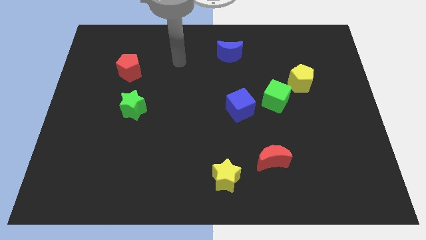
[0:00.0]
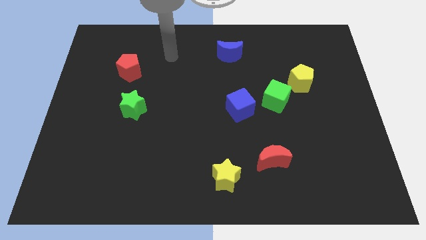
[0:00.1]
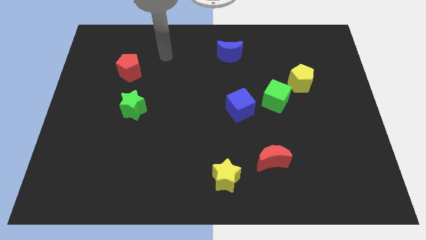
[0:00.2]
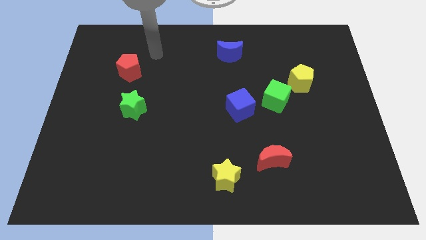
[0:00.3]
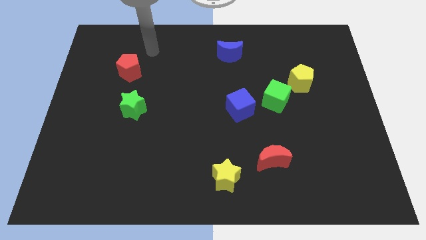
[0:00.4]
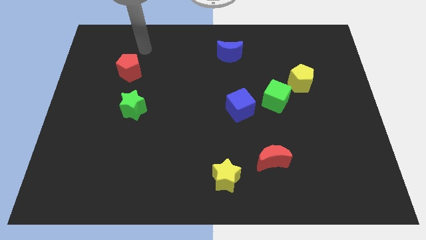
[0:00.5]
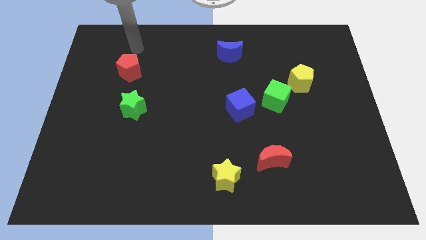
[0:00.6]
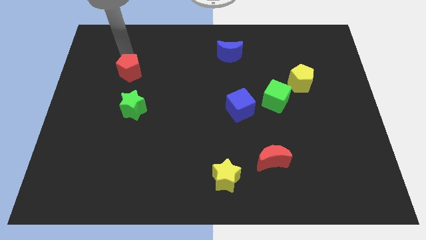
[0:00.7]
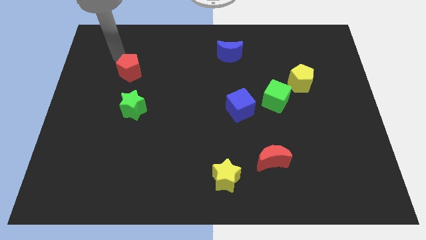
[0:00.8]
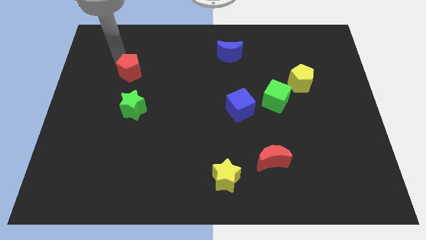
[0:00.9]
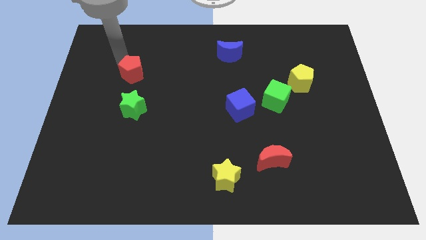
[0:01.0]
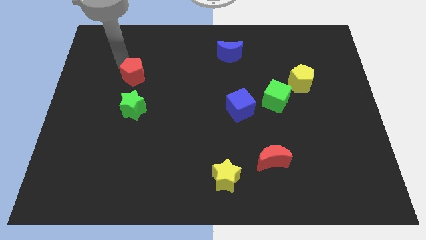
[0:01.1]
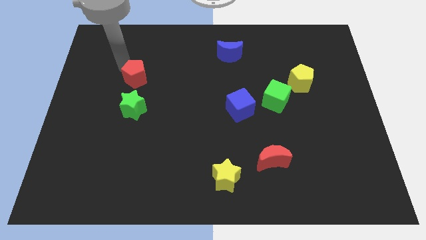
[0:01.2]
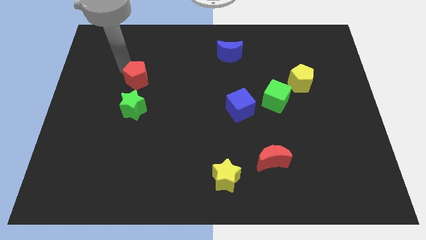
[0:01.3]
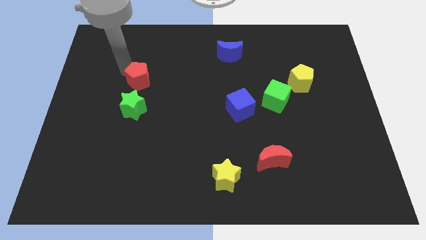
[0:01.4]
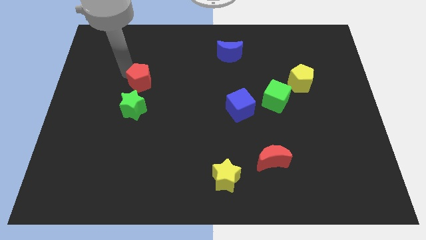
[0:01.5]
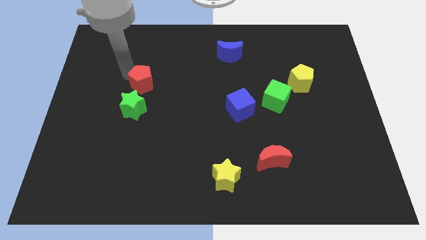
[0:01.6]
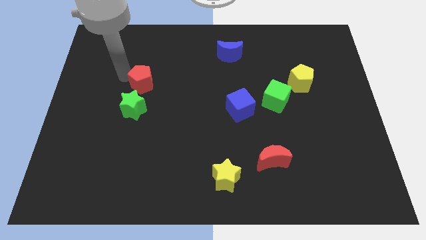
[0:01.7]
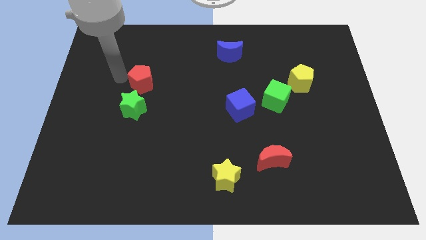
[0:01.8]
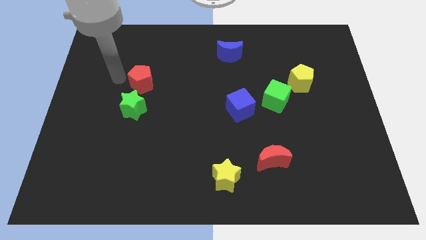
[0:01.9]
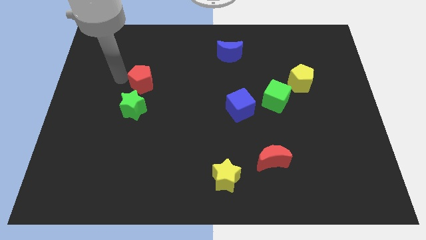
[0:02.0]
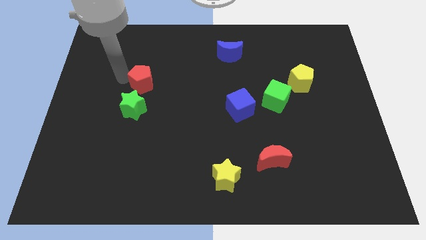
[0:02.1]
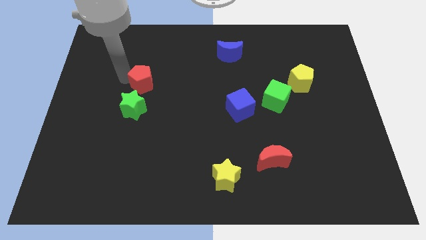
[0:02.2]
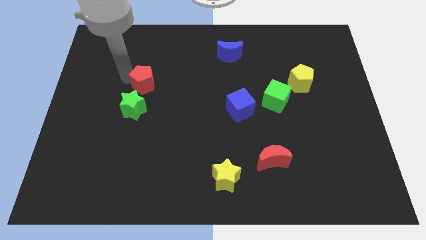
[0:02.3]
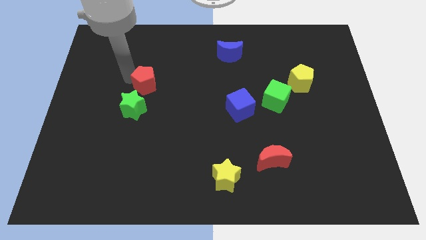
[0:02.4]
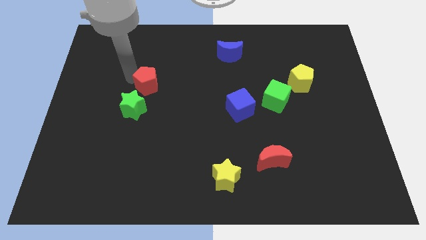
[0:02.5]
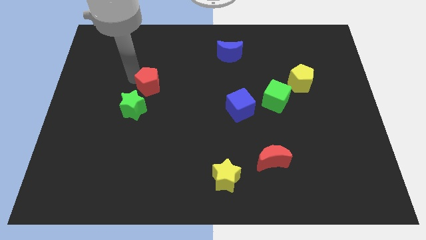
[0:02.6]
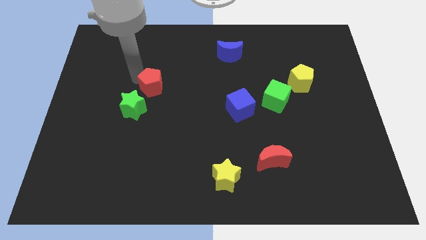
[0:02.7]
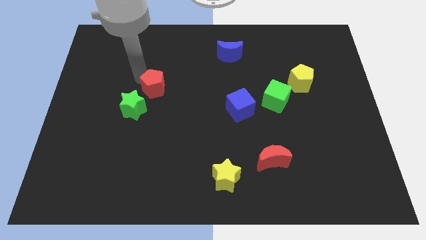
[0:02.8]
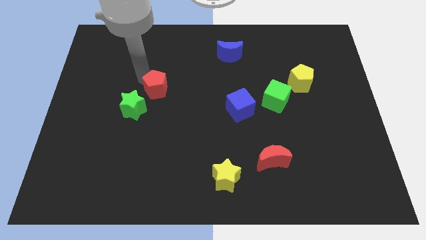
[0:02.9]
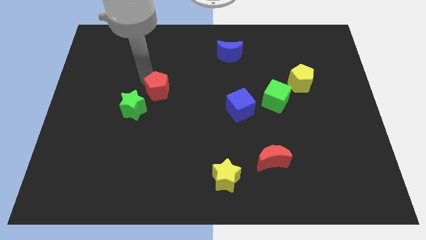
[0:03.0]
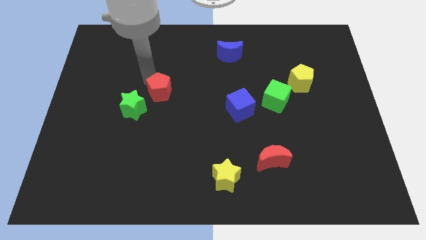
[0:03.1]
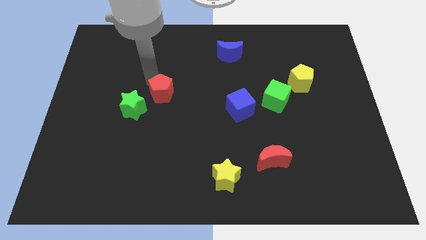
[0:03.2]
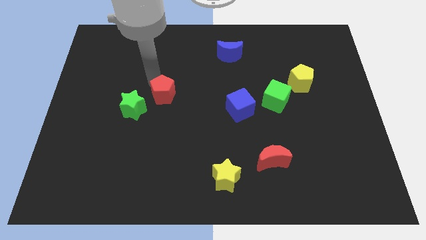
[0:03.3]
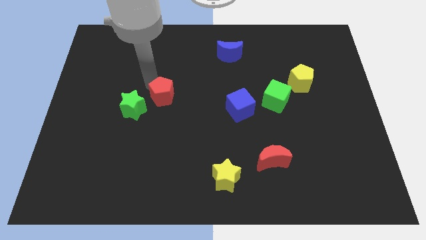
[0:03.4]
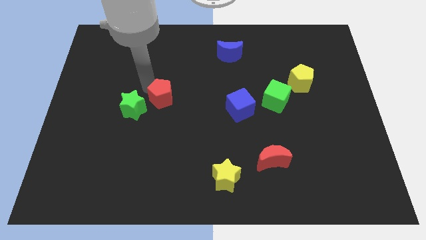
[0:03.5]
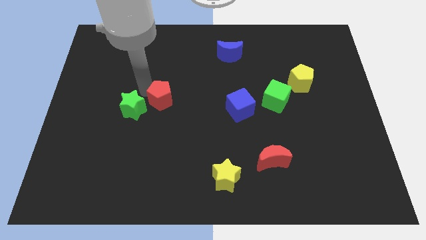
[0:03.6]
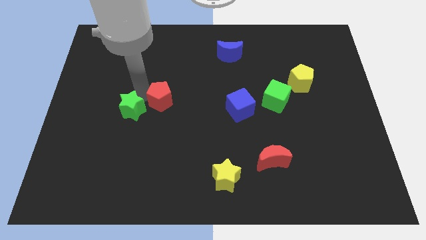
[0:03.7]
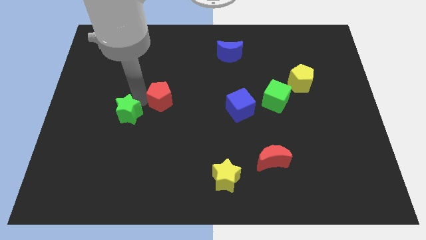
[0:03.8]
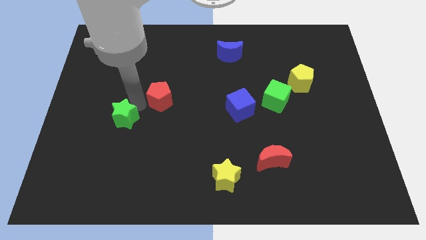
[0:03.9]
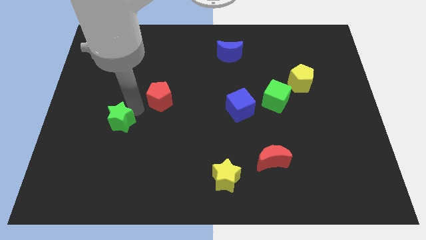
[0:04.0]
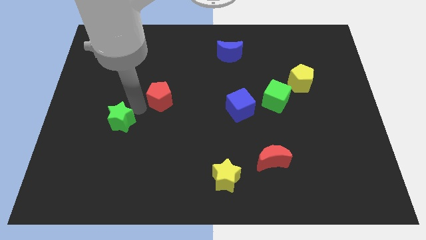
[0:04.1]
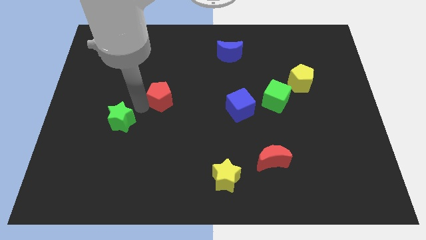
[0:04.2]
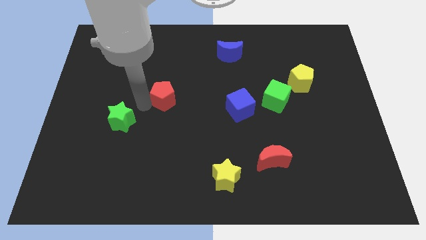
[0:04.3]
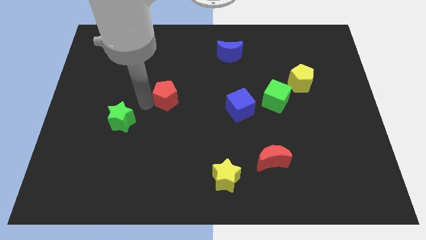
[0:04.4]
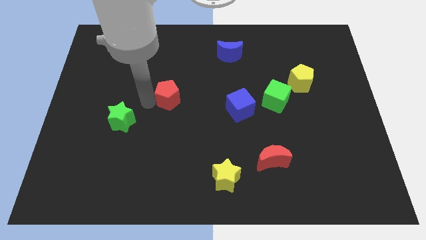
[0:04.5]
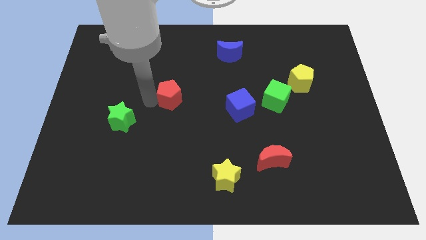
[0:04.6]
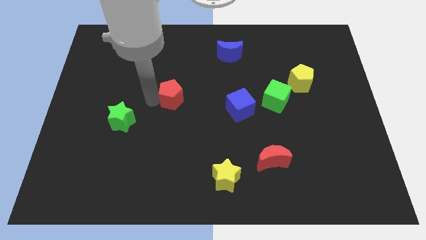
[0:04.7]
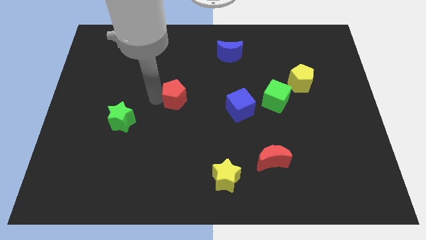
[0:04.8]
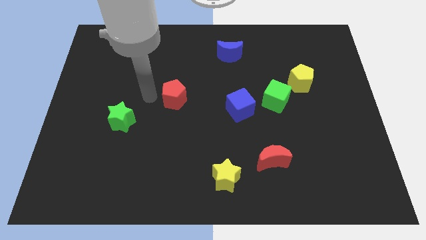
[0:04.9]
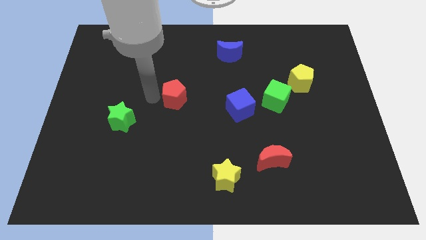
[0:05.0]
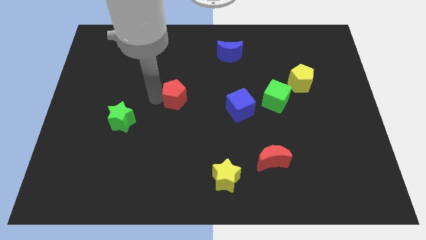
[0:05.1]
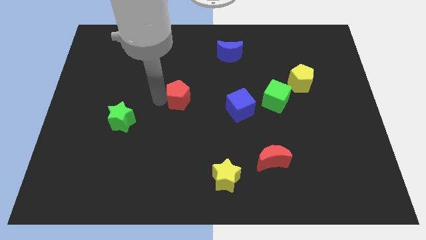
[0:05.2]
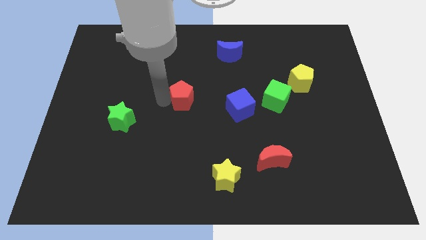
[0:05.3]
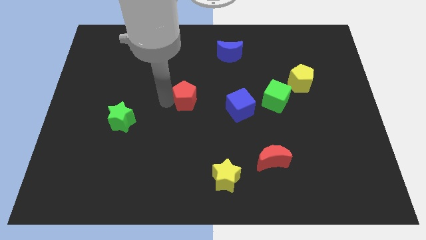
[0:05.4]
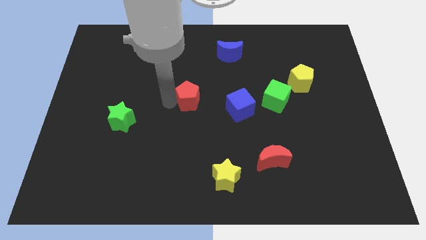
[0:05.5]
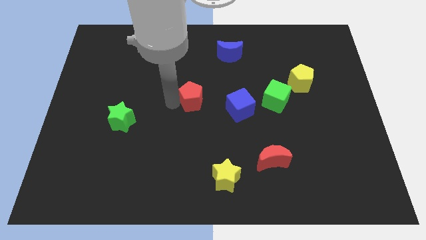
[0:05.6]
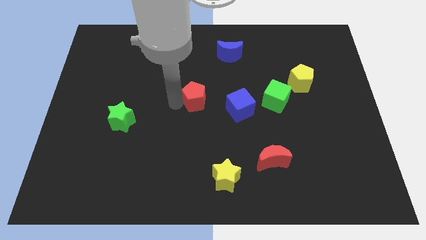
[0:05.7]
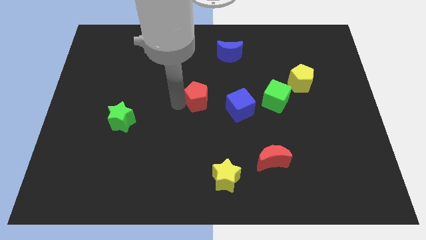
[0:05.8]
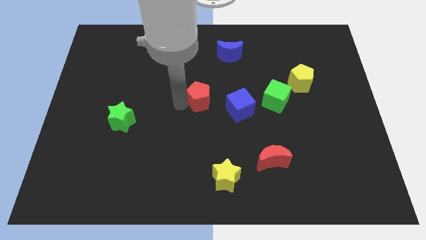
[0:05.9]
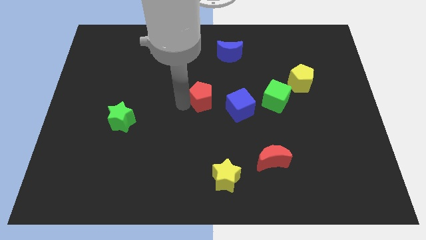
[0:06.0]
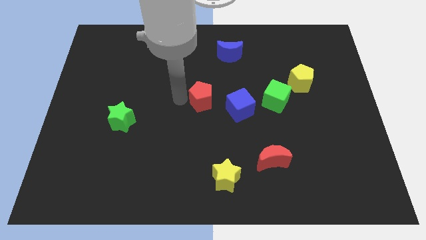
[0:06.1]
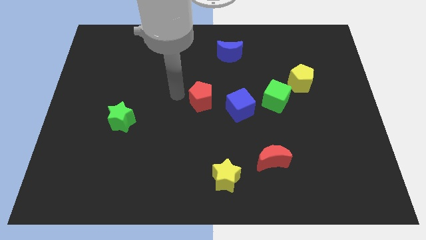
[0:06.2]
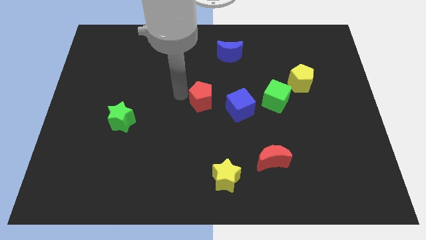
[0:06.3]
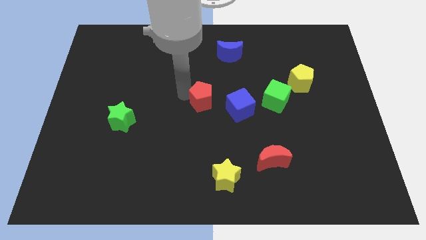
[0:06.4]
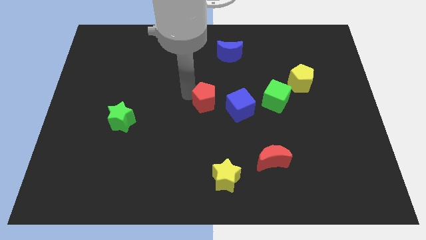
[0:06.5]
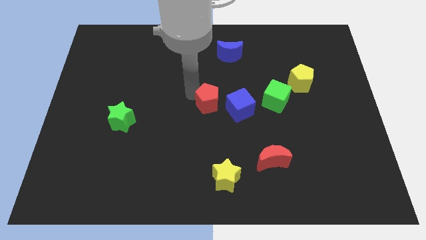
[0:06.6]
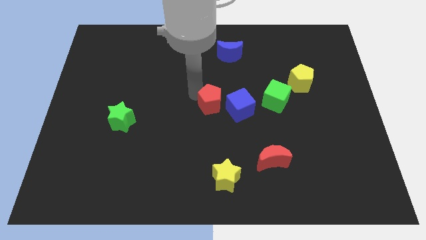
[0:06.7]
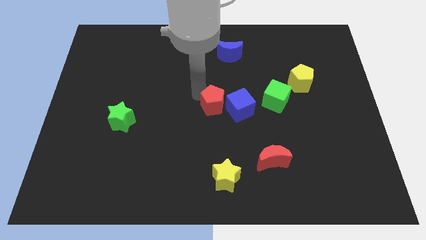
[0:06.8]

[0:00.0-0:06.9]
push the red pentagon next to the blue cube
